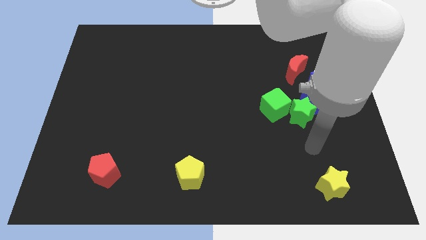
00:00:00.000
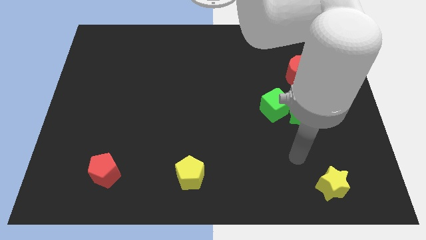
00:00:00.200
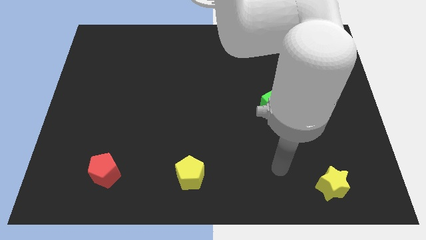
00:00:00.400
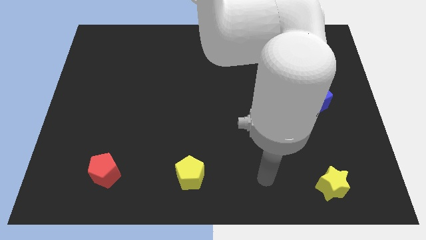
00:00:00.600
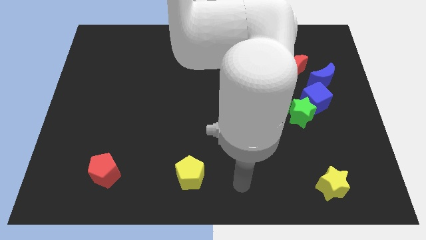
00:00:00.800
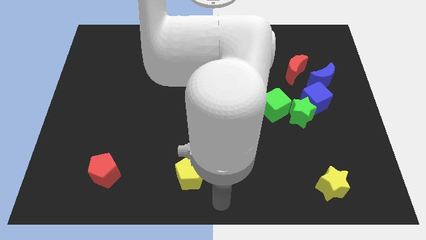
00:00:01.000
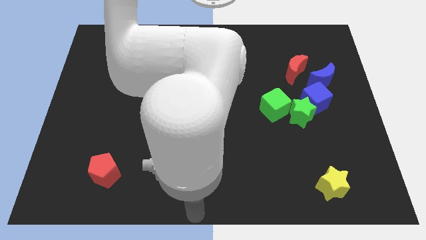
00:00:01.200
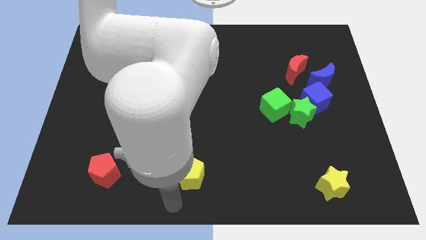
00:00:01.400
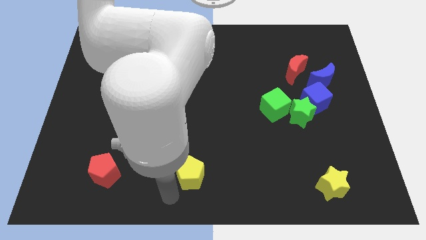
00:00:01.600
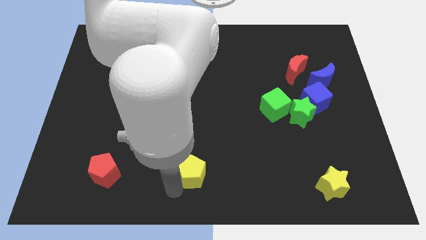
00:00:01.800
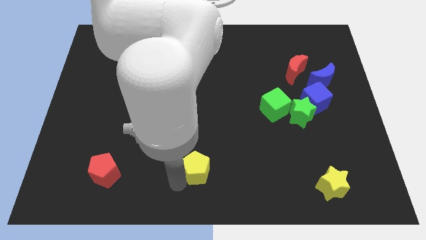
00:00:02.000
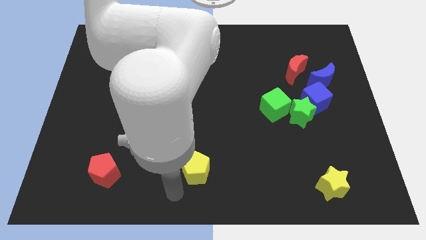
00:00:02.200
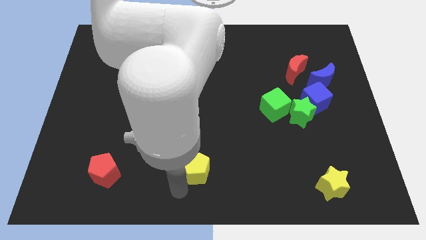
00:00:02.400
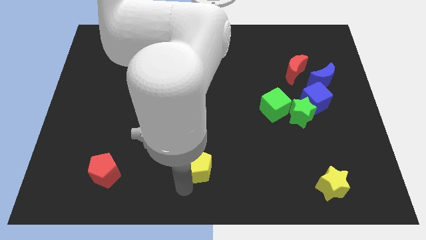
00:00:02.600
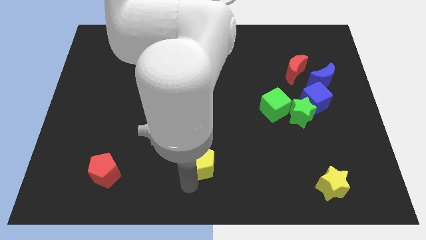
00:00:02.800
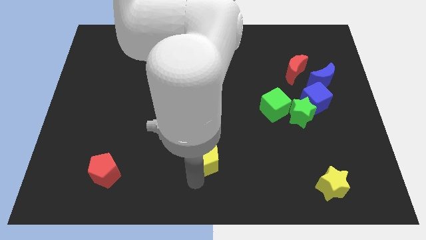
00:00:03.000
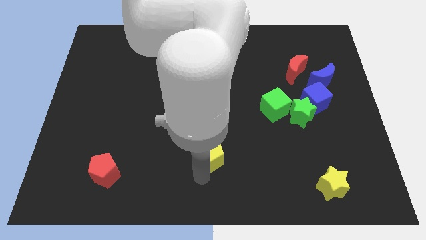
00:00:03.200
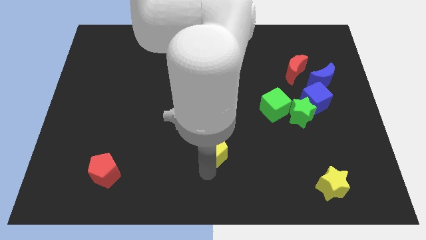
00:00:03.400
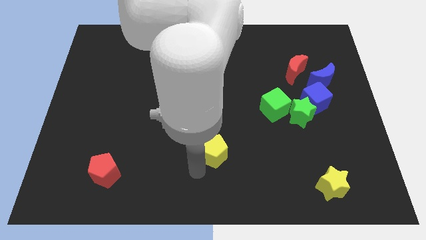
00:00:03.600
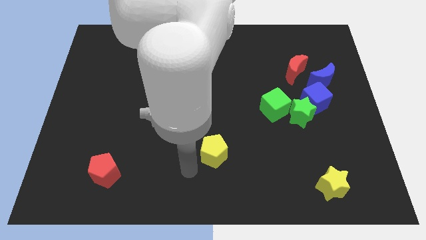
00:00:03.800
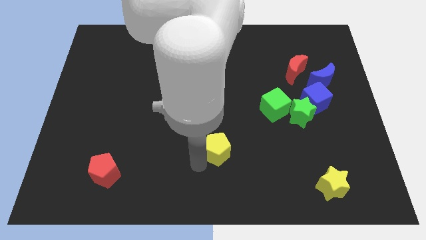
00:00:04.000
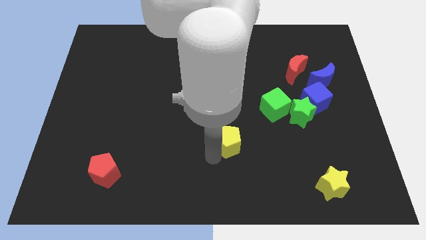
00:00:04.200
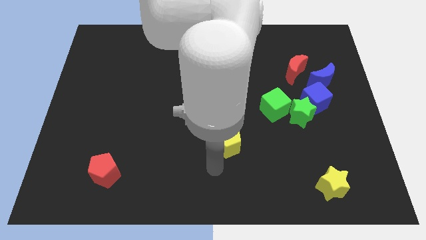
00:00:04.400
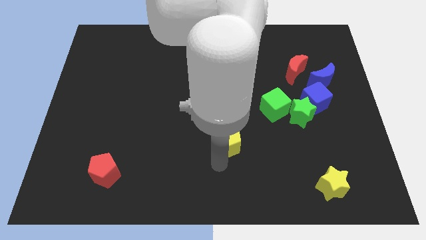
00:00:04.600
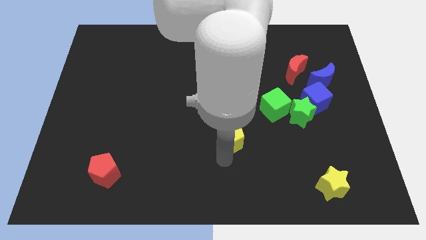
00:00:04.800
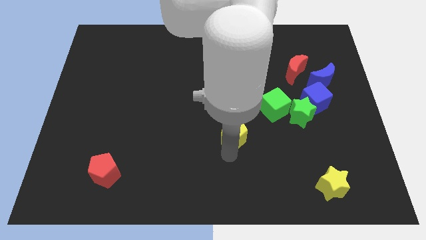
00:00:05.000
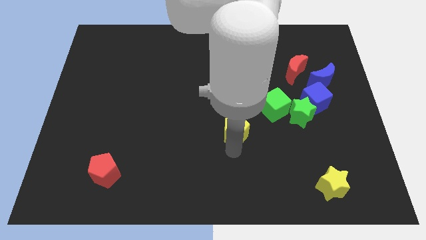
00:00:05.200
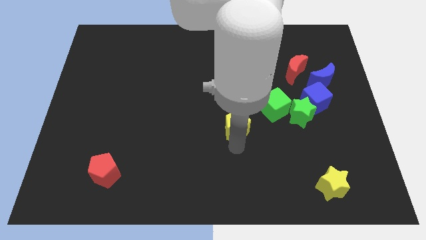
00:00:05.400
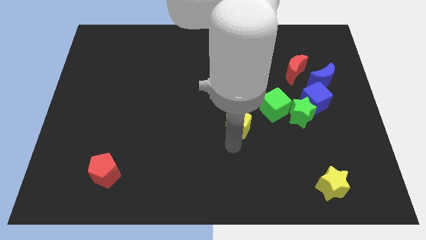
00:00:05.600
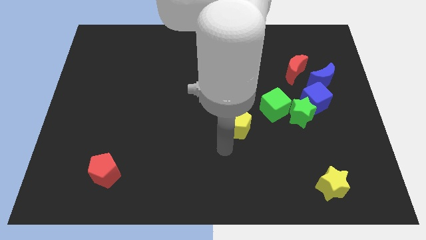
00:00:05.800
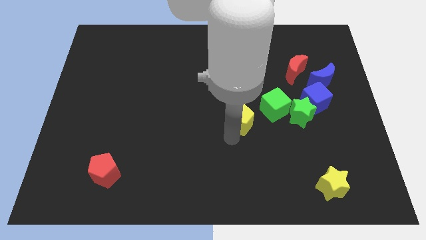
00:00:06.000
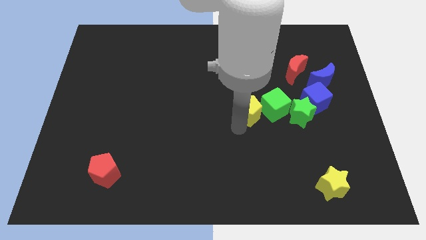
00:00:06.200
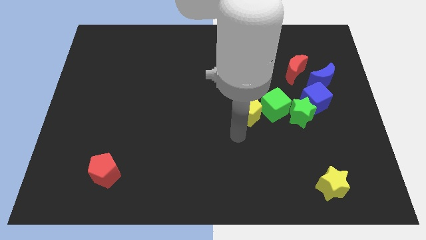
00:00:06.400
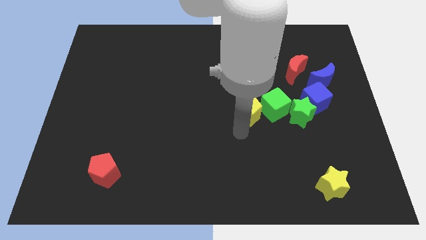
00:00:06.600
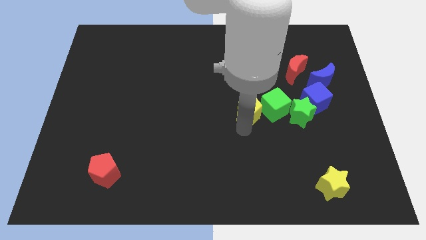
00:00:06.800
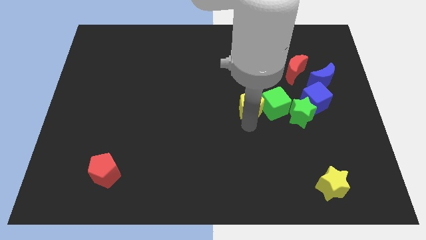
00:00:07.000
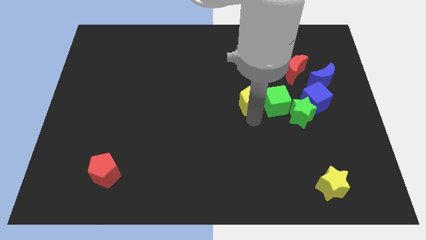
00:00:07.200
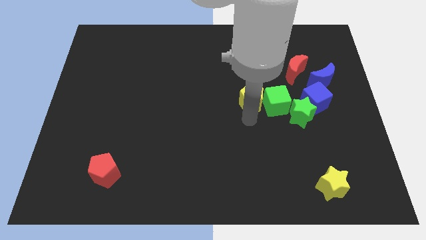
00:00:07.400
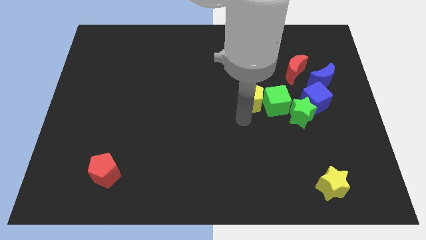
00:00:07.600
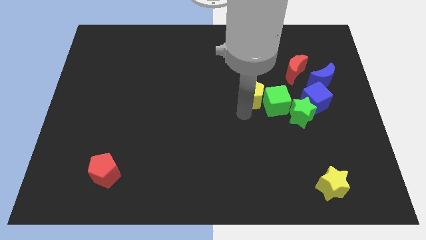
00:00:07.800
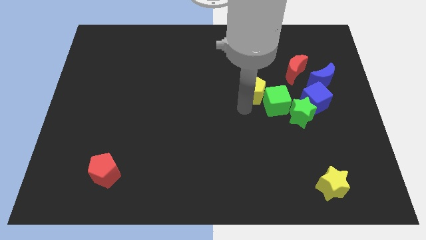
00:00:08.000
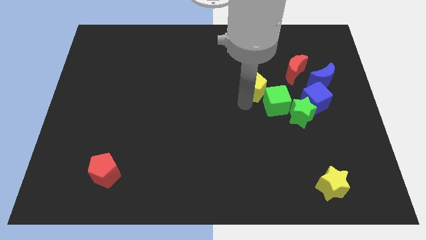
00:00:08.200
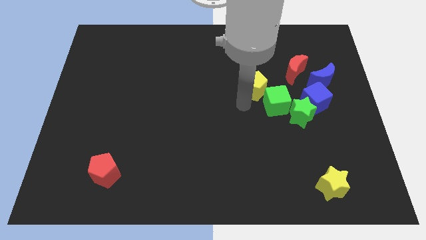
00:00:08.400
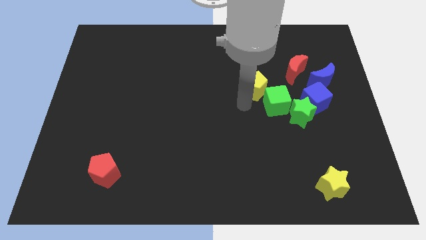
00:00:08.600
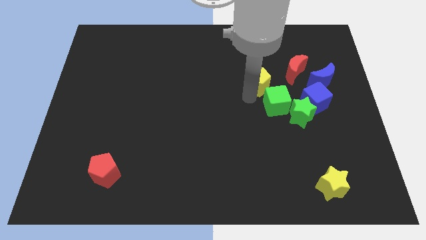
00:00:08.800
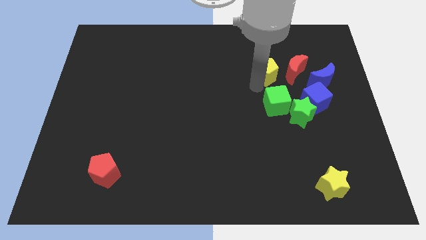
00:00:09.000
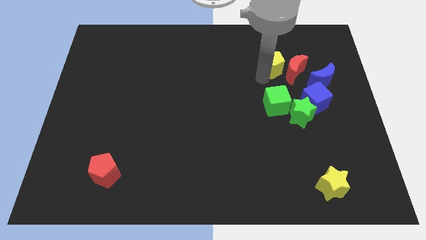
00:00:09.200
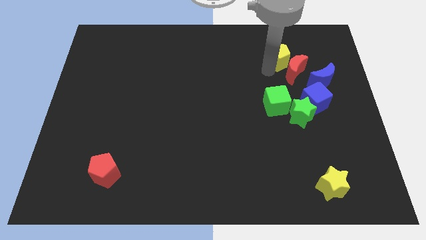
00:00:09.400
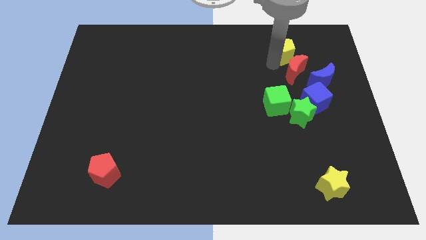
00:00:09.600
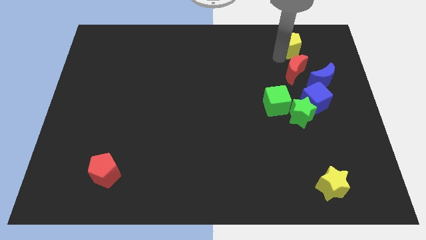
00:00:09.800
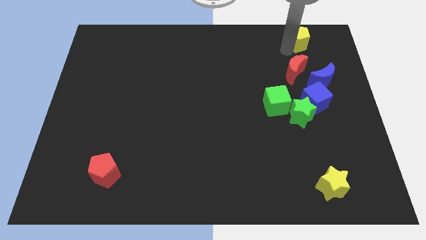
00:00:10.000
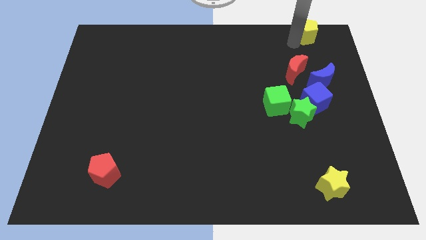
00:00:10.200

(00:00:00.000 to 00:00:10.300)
slide the yellow pentagon to the top right of the board

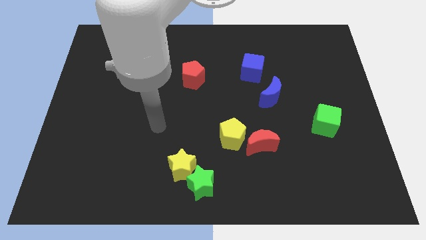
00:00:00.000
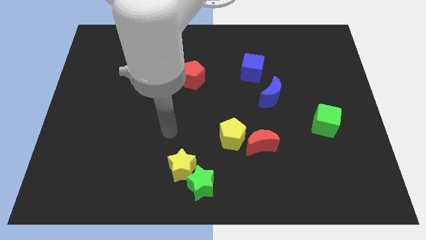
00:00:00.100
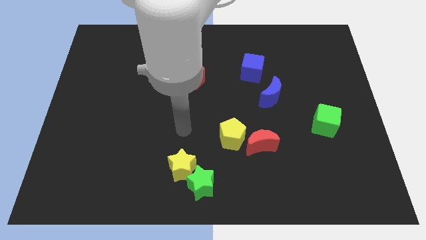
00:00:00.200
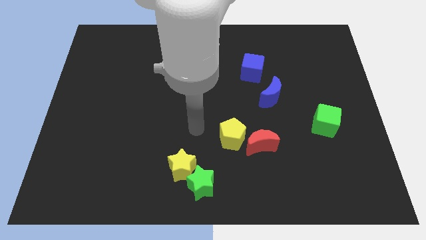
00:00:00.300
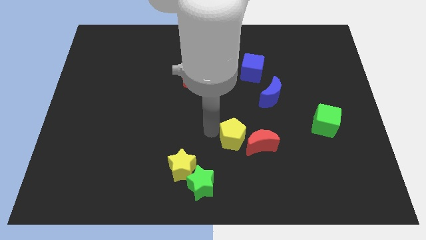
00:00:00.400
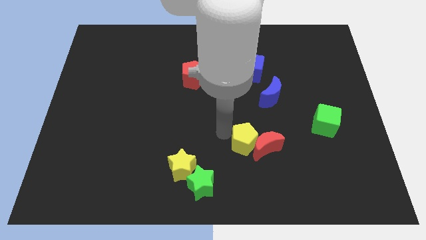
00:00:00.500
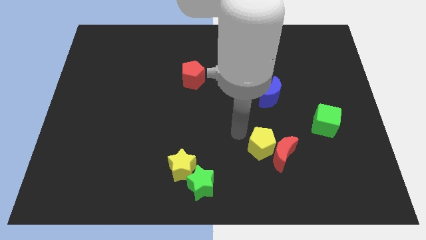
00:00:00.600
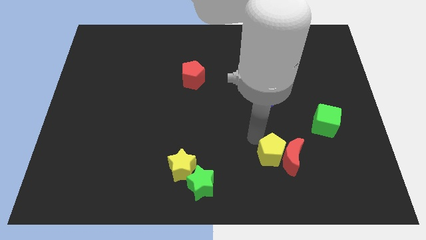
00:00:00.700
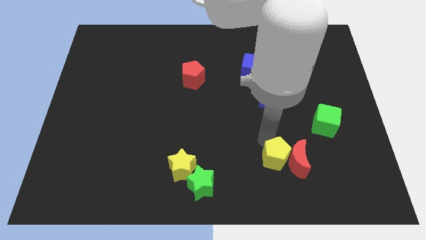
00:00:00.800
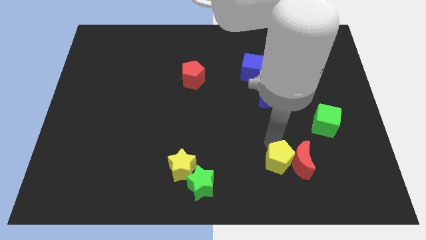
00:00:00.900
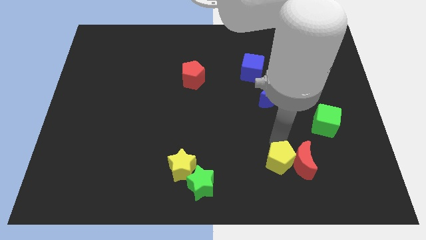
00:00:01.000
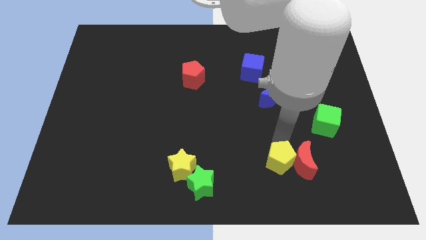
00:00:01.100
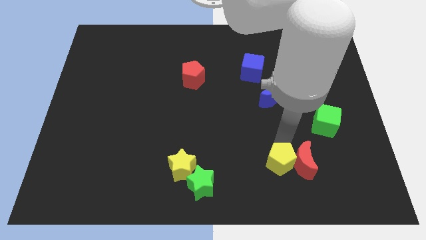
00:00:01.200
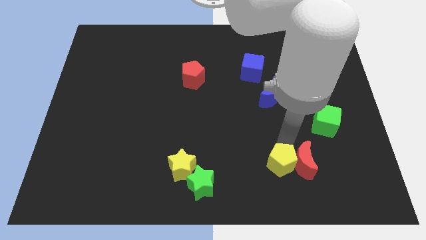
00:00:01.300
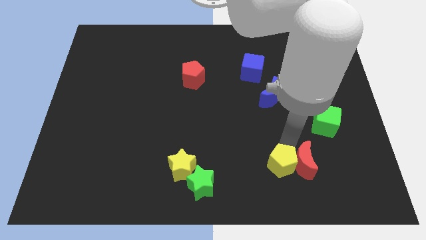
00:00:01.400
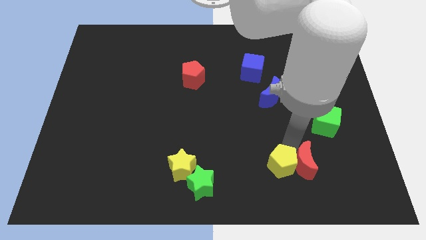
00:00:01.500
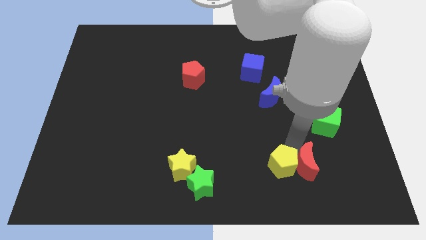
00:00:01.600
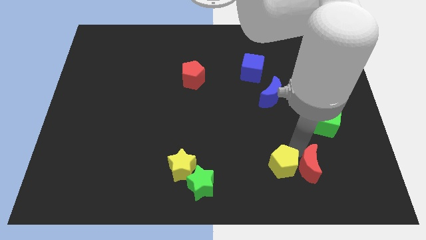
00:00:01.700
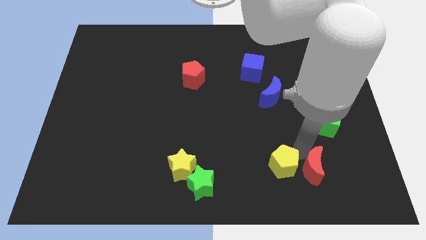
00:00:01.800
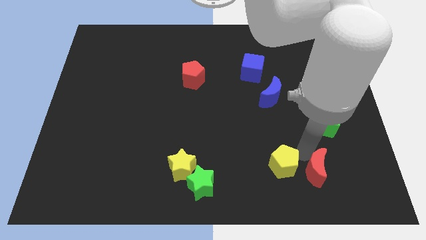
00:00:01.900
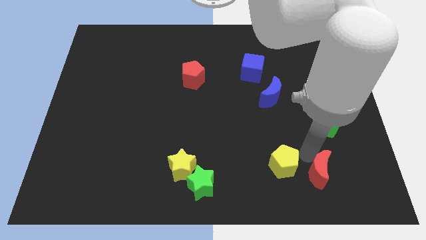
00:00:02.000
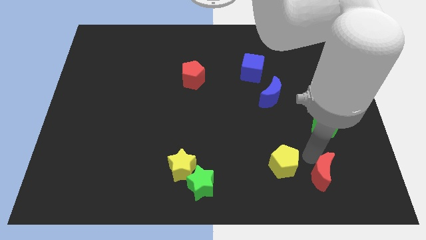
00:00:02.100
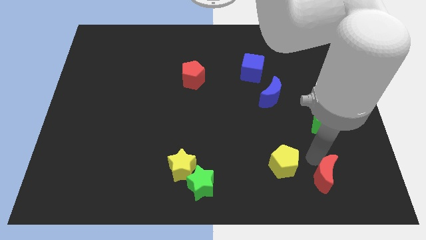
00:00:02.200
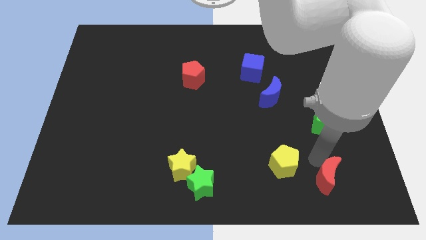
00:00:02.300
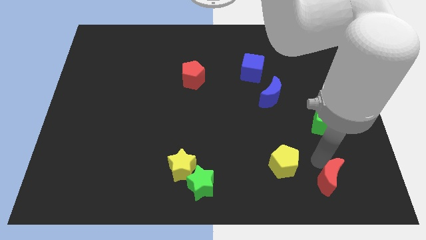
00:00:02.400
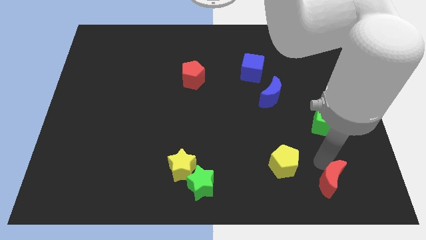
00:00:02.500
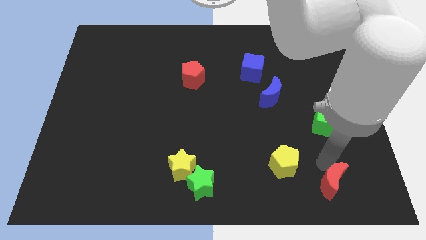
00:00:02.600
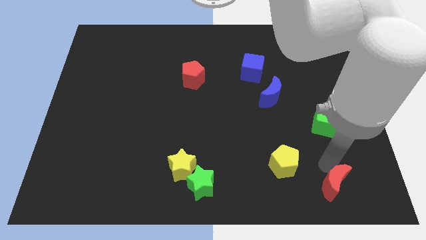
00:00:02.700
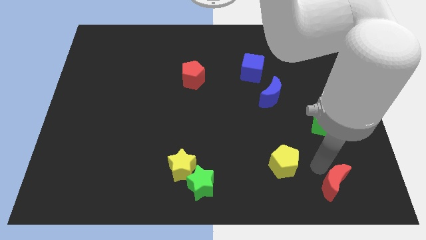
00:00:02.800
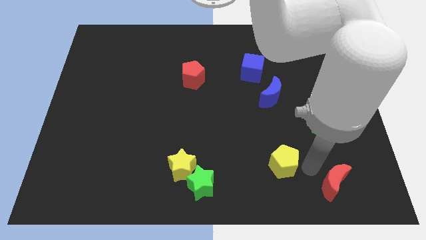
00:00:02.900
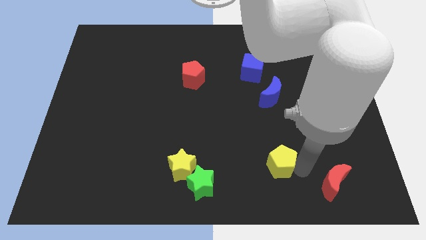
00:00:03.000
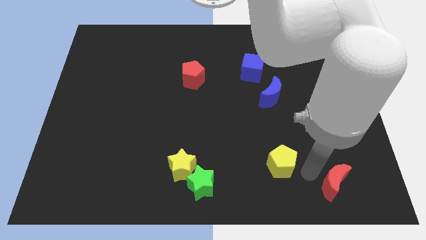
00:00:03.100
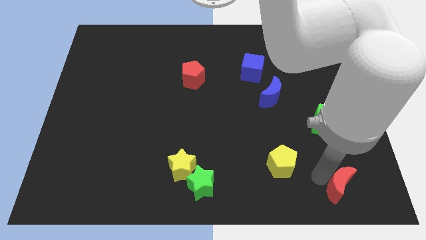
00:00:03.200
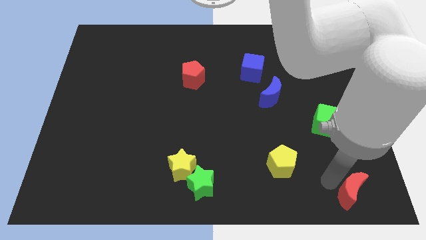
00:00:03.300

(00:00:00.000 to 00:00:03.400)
push the red moon to the bottom right corner
